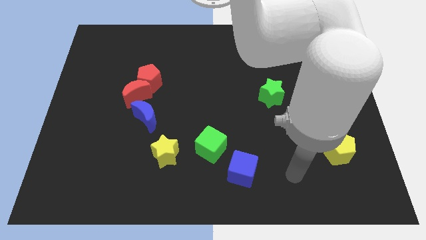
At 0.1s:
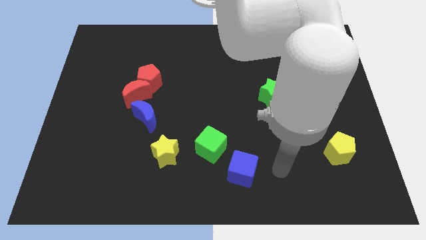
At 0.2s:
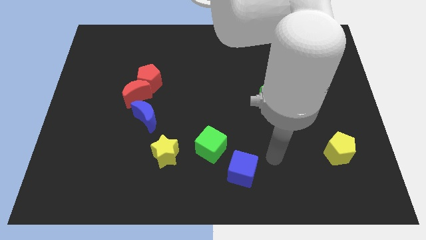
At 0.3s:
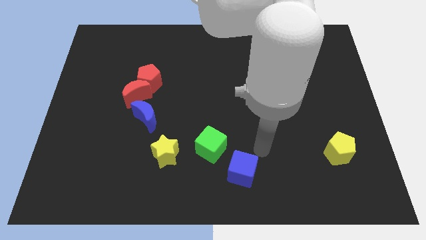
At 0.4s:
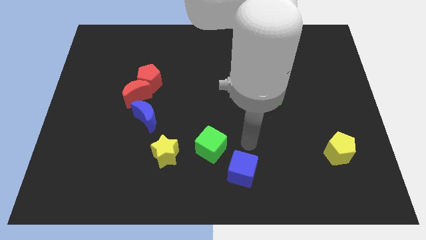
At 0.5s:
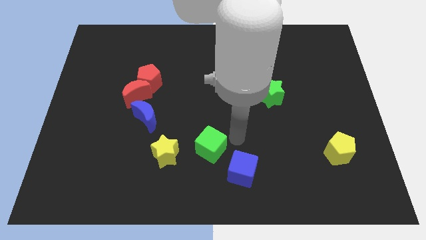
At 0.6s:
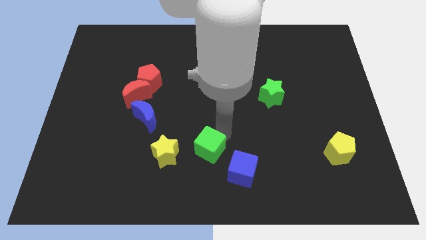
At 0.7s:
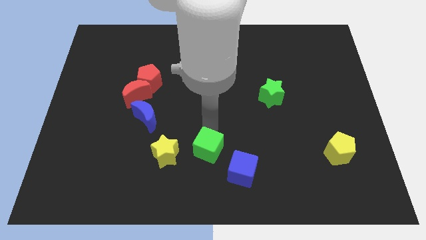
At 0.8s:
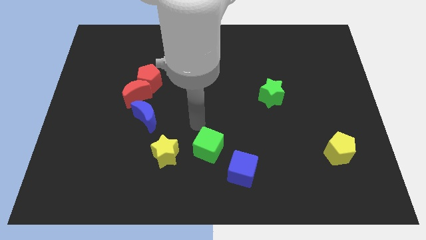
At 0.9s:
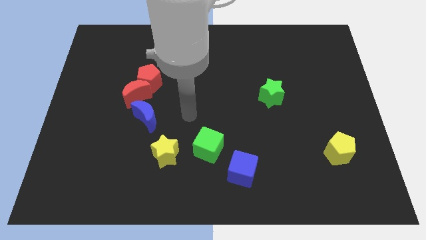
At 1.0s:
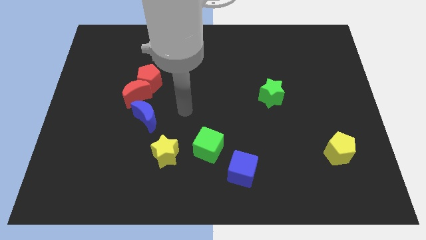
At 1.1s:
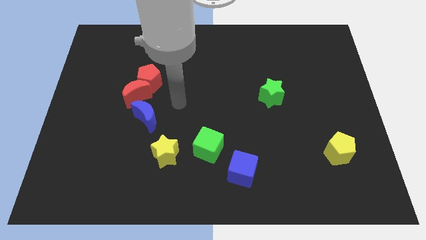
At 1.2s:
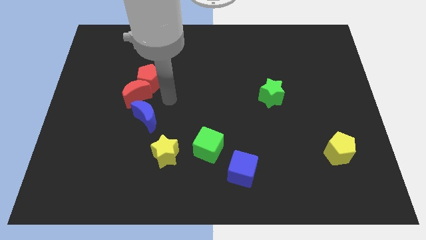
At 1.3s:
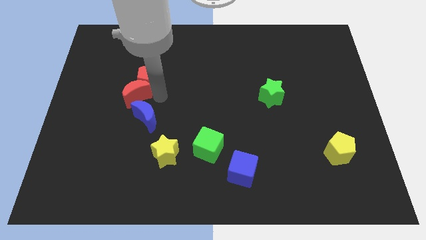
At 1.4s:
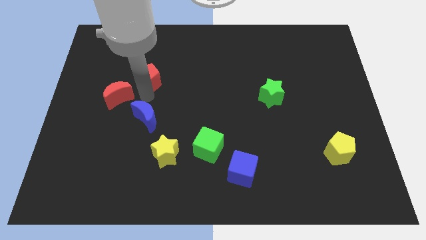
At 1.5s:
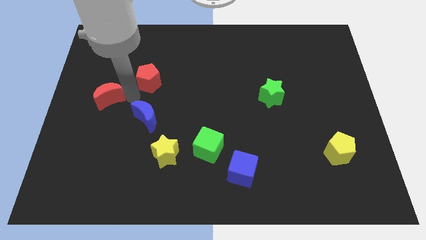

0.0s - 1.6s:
pull the red pentagon apart from the red moon

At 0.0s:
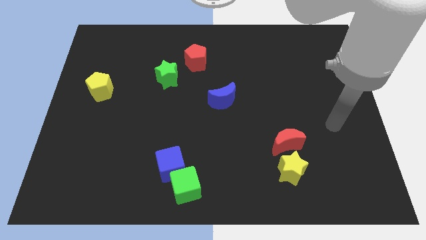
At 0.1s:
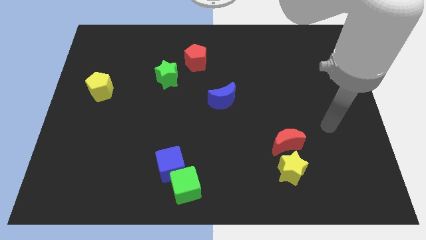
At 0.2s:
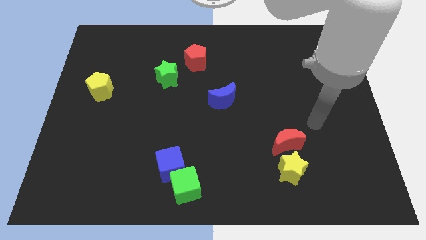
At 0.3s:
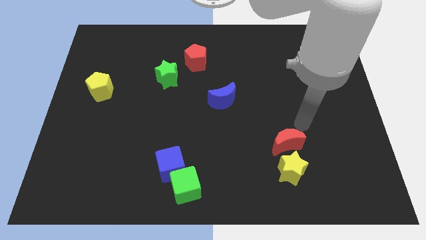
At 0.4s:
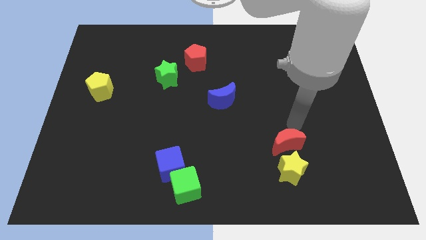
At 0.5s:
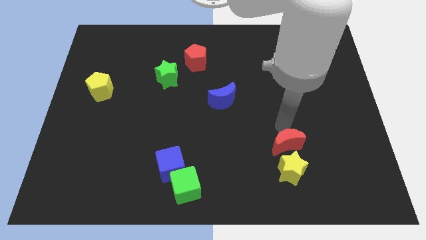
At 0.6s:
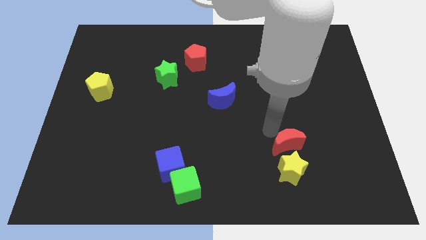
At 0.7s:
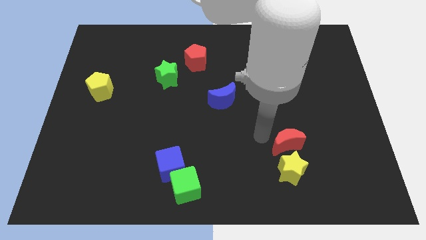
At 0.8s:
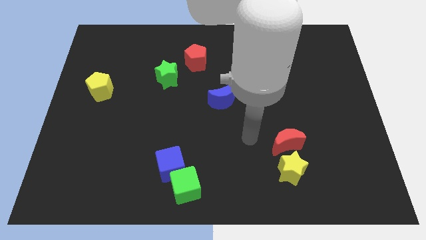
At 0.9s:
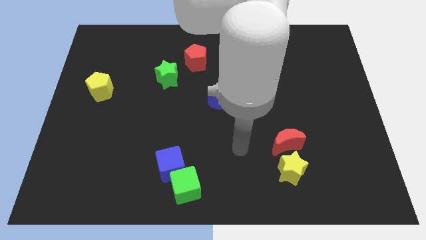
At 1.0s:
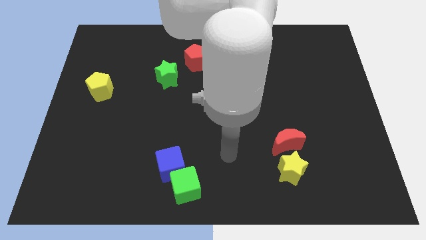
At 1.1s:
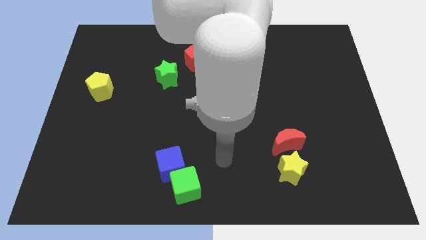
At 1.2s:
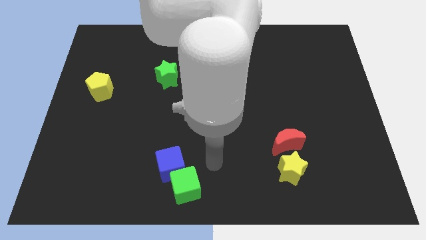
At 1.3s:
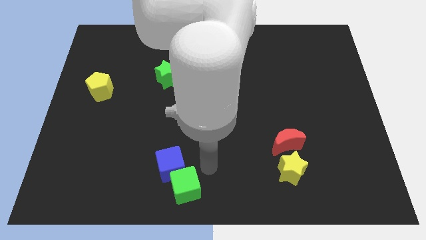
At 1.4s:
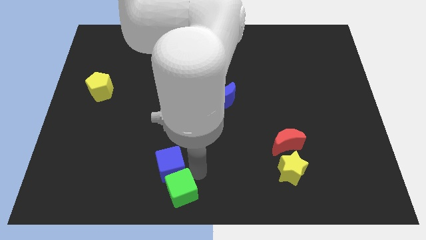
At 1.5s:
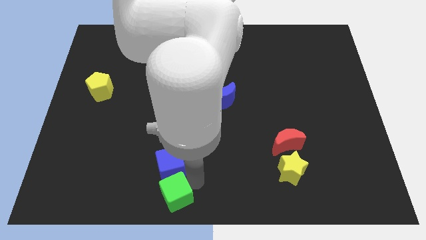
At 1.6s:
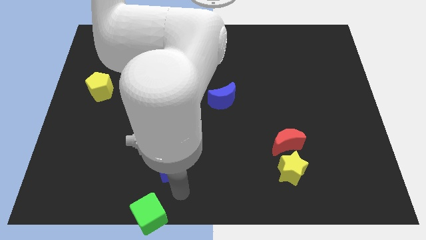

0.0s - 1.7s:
move the blue cube away from the green cube

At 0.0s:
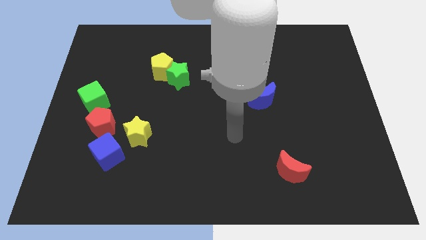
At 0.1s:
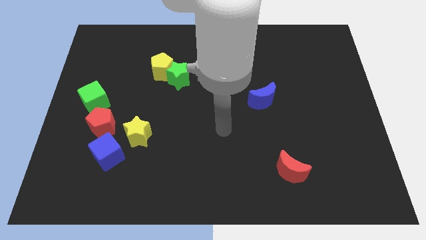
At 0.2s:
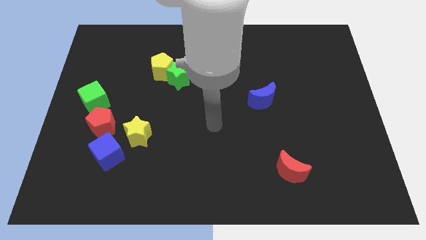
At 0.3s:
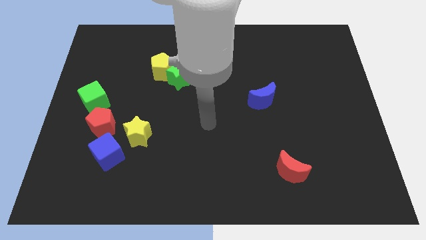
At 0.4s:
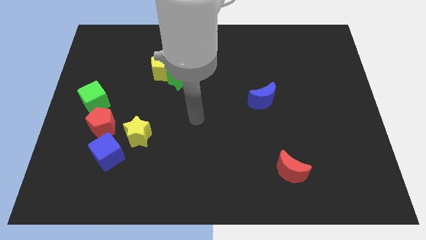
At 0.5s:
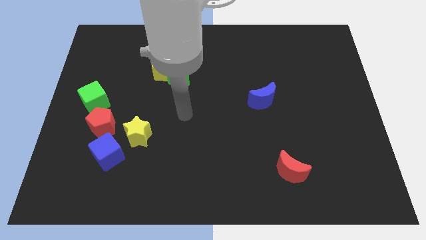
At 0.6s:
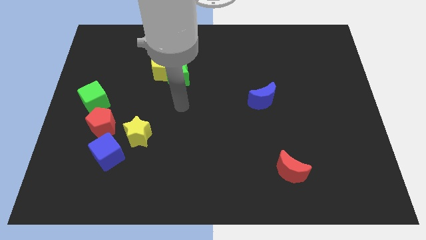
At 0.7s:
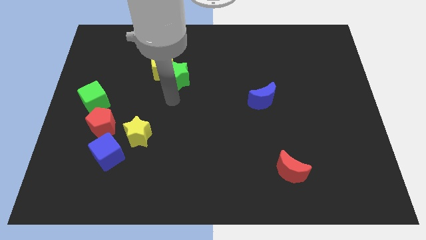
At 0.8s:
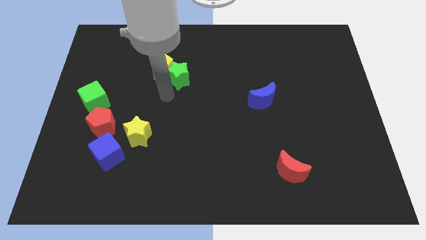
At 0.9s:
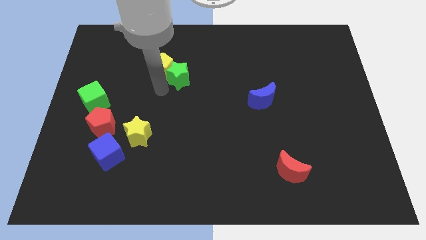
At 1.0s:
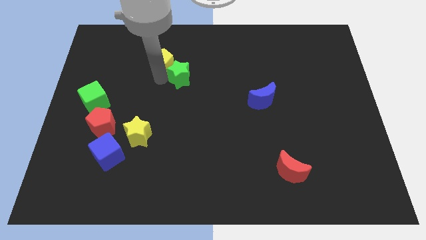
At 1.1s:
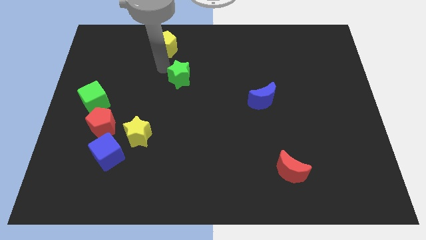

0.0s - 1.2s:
separate the green star from the yellow pentagon

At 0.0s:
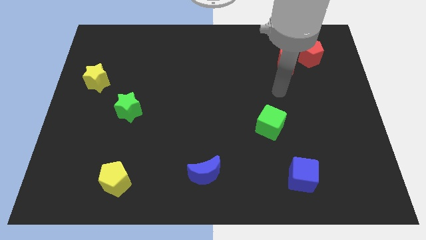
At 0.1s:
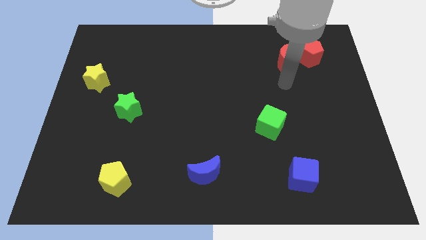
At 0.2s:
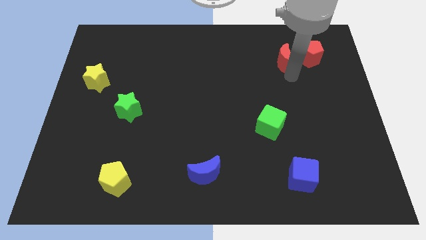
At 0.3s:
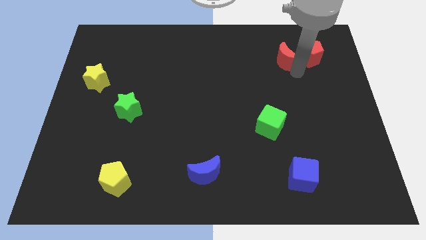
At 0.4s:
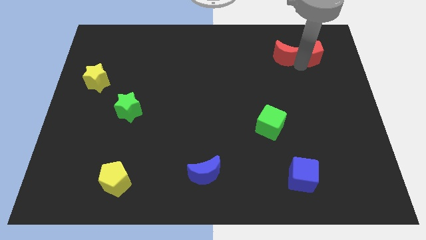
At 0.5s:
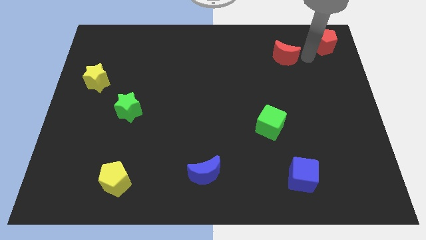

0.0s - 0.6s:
separate the red moon from the red pentagon

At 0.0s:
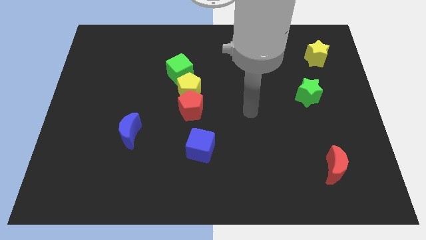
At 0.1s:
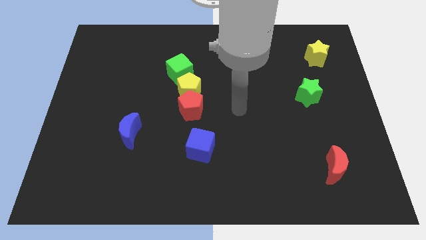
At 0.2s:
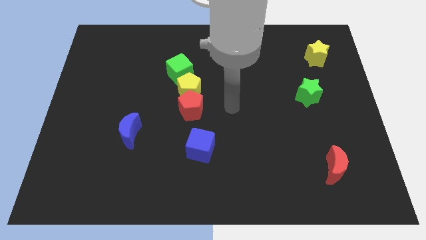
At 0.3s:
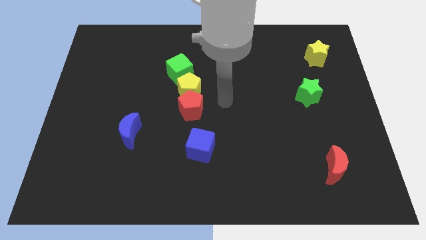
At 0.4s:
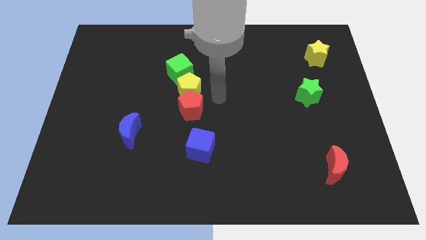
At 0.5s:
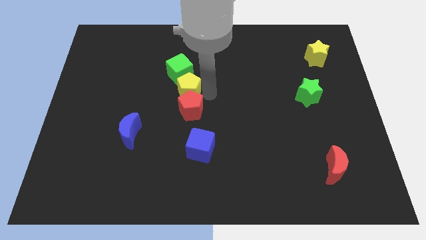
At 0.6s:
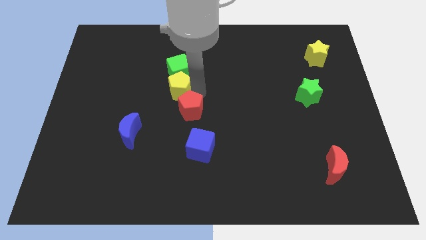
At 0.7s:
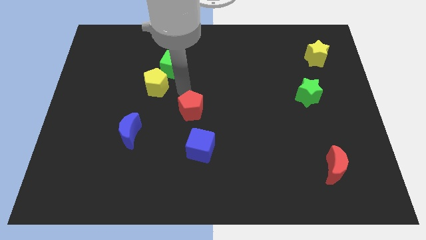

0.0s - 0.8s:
pull the red pentagon apart from the yellow pentagon

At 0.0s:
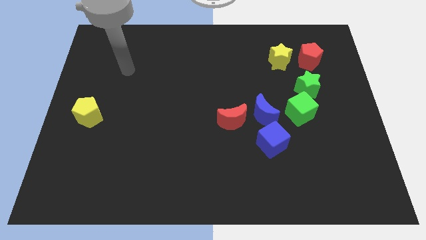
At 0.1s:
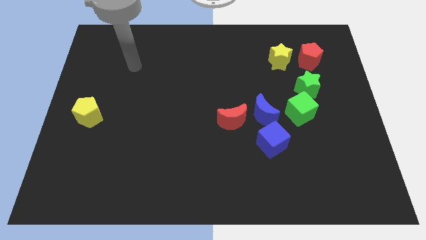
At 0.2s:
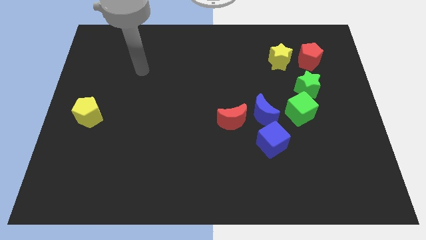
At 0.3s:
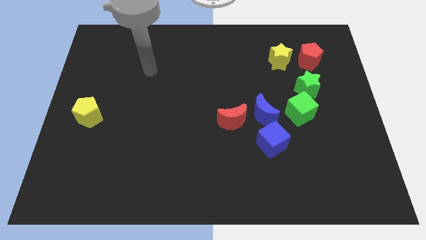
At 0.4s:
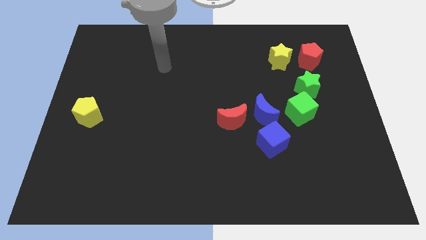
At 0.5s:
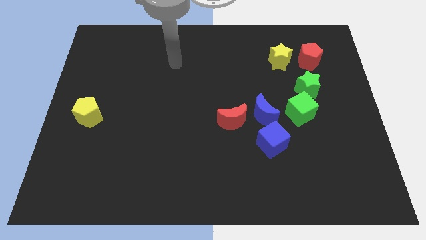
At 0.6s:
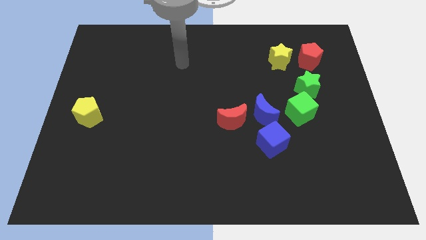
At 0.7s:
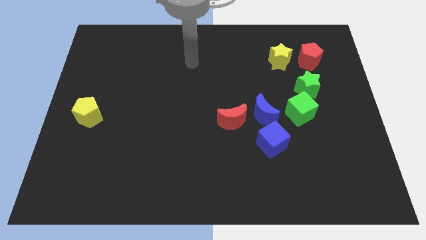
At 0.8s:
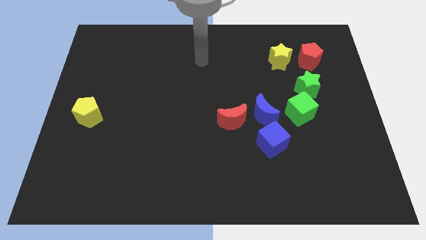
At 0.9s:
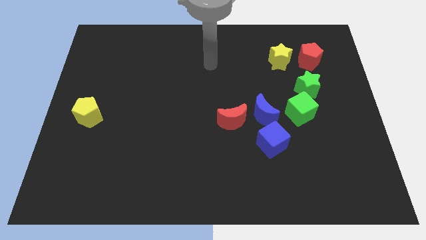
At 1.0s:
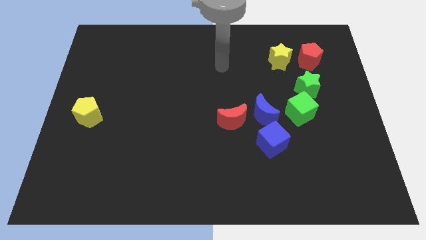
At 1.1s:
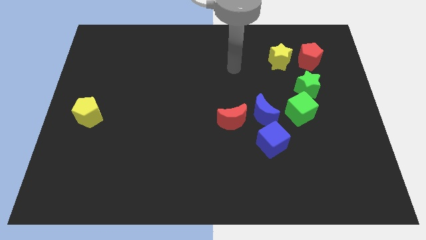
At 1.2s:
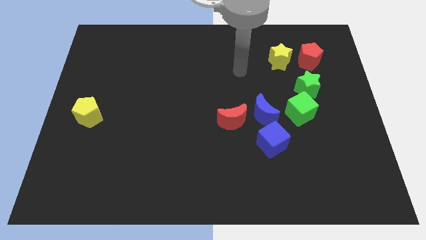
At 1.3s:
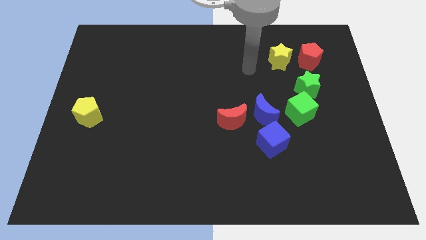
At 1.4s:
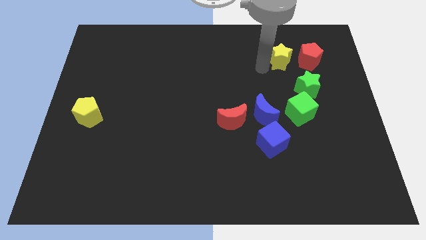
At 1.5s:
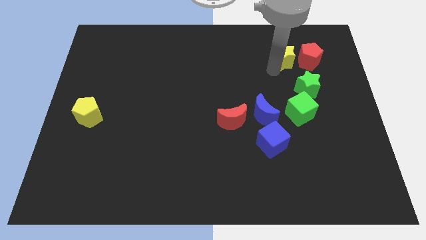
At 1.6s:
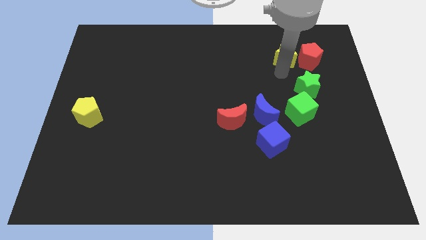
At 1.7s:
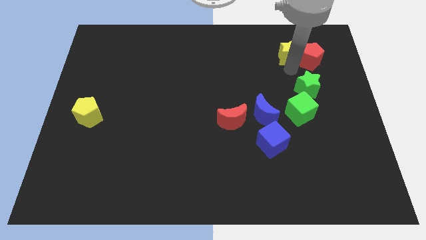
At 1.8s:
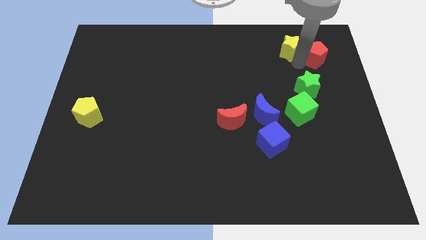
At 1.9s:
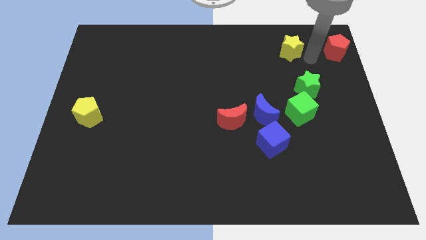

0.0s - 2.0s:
move the yellow star away from the red pentagon

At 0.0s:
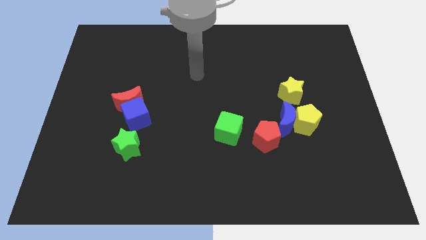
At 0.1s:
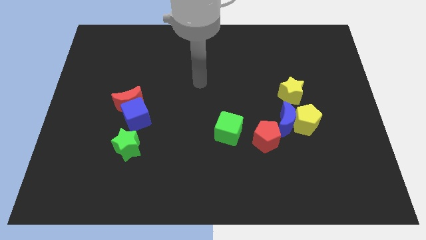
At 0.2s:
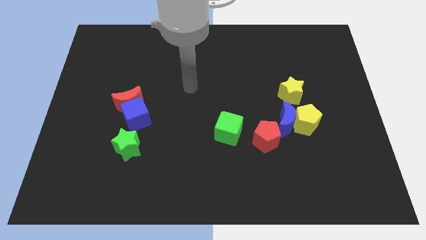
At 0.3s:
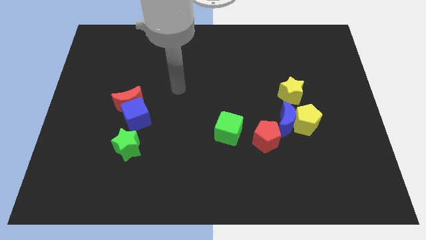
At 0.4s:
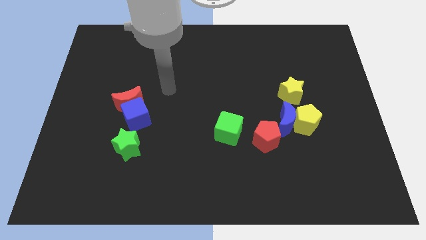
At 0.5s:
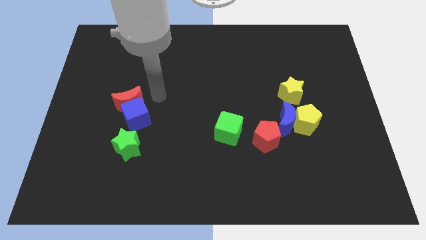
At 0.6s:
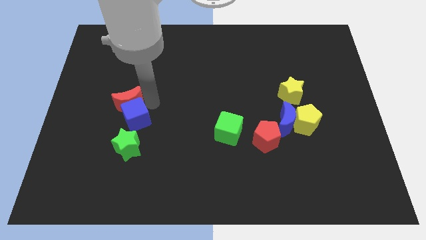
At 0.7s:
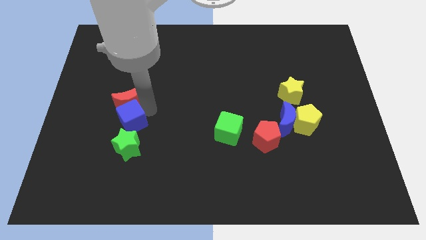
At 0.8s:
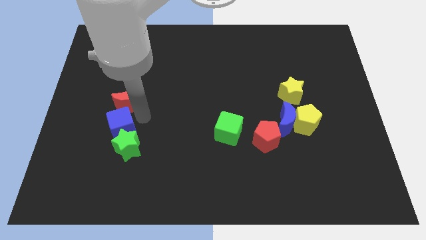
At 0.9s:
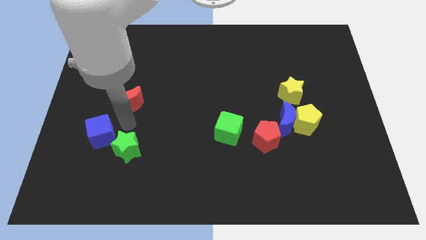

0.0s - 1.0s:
move the red moon away from the blue cube

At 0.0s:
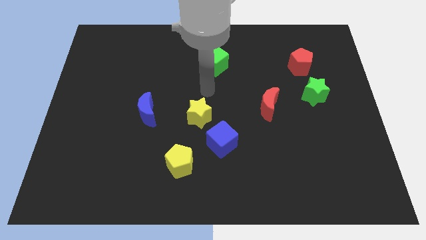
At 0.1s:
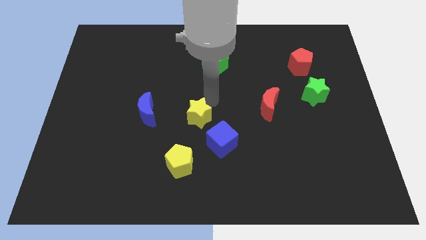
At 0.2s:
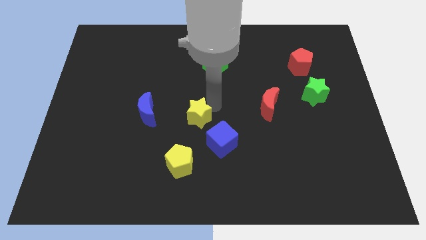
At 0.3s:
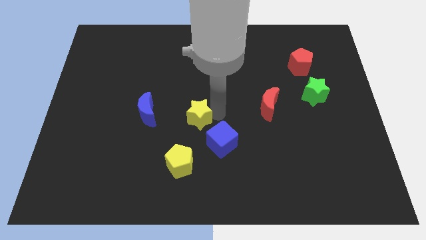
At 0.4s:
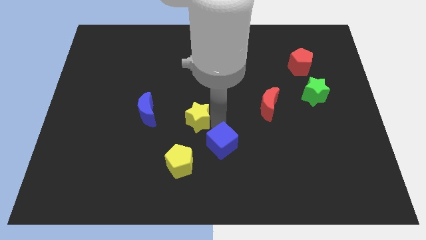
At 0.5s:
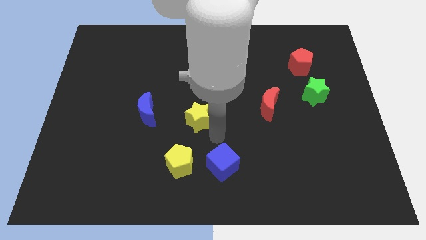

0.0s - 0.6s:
pull the yellow star apart from the blue cube
